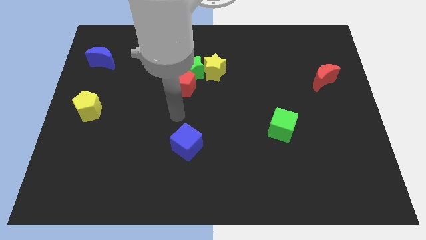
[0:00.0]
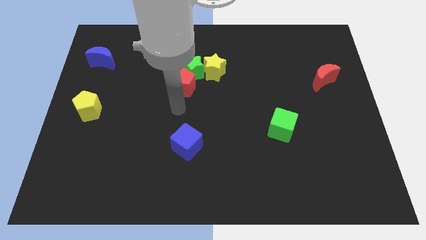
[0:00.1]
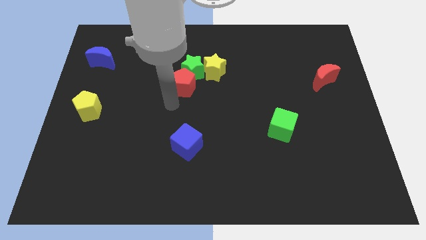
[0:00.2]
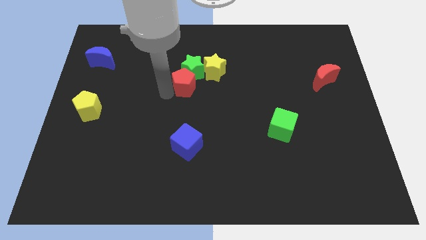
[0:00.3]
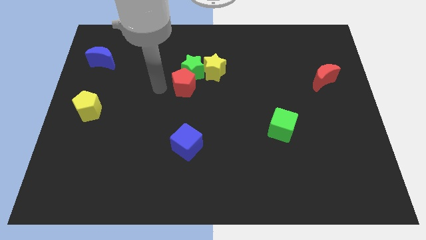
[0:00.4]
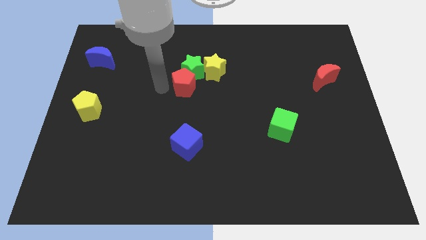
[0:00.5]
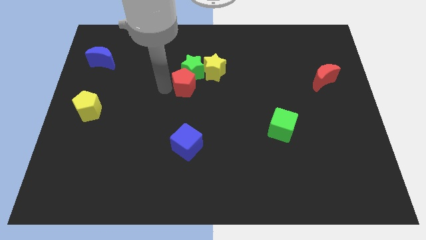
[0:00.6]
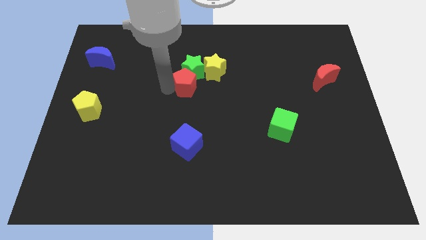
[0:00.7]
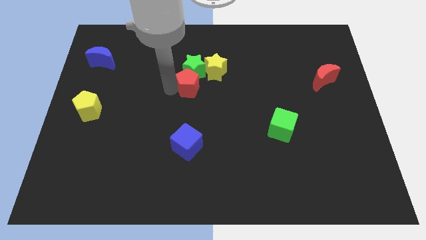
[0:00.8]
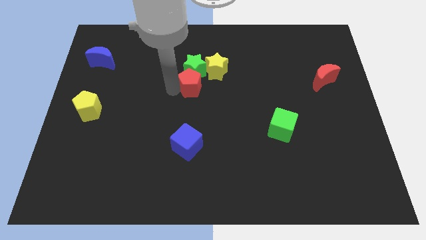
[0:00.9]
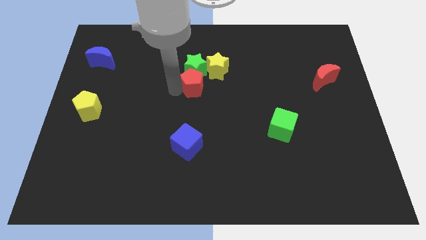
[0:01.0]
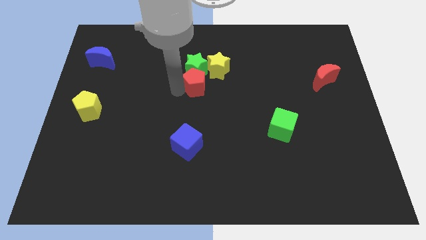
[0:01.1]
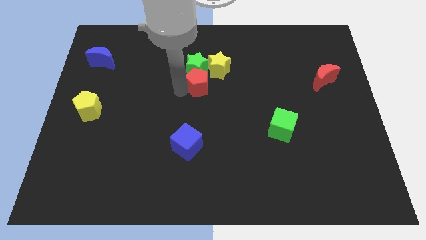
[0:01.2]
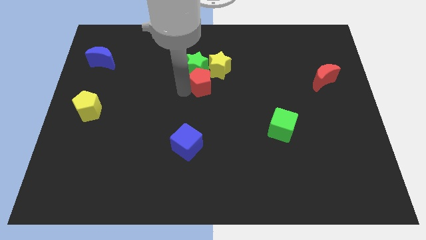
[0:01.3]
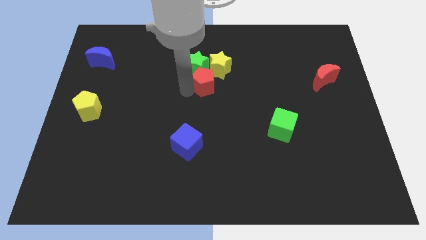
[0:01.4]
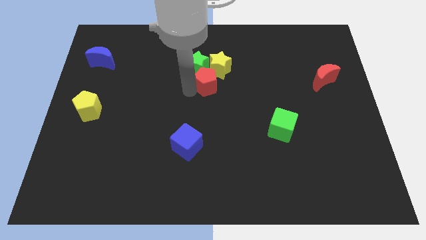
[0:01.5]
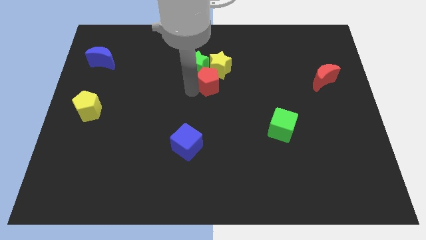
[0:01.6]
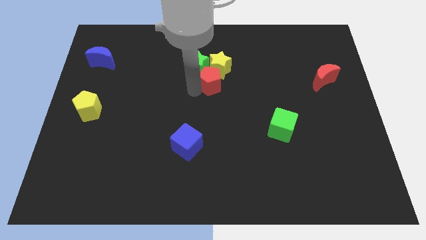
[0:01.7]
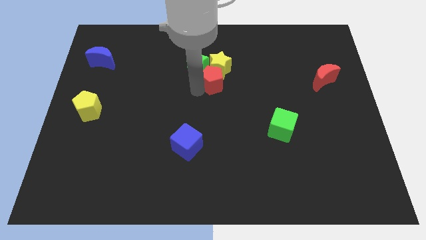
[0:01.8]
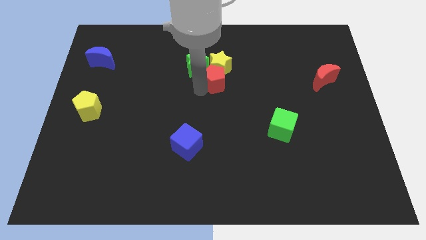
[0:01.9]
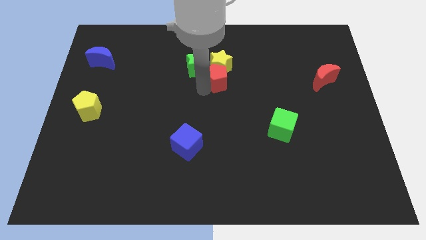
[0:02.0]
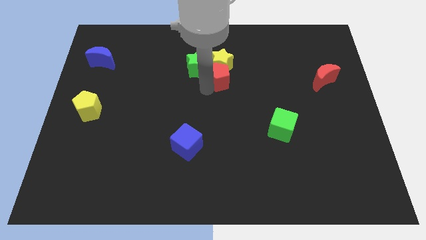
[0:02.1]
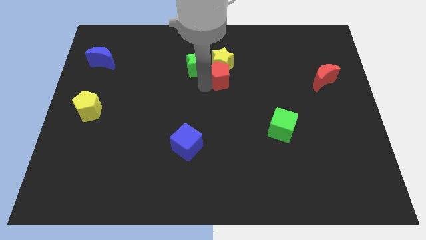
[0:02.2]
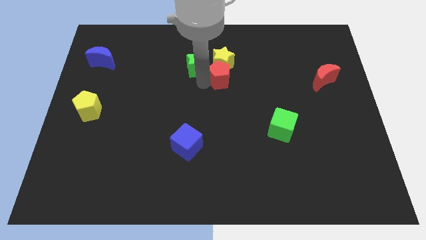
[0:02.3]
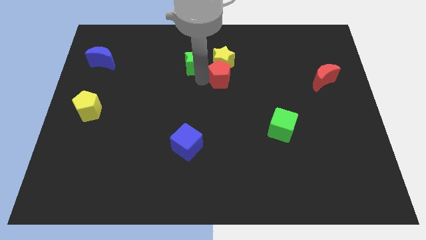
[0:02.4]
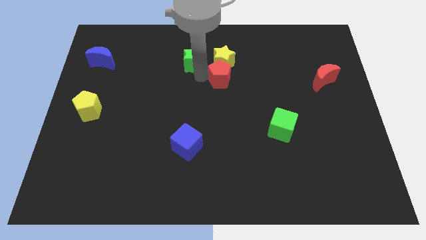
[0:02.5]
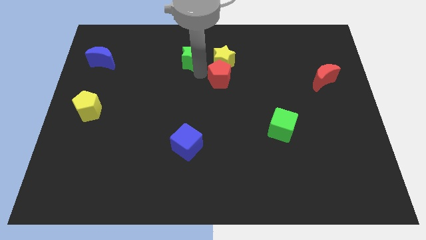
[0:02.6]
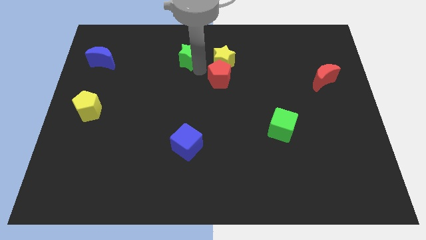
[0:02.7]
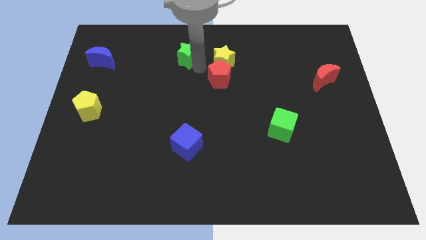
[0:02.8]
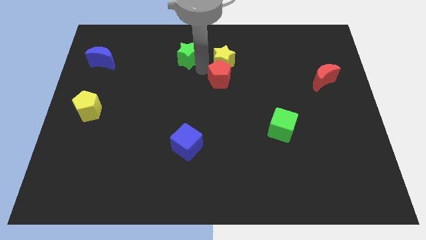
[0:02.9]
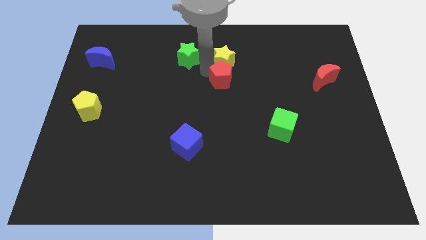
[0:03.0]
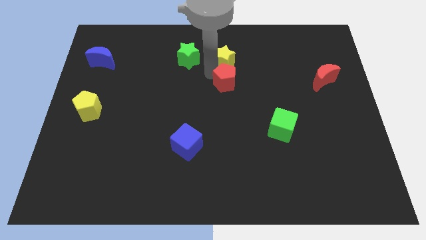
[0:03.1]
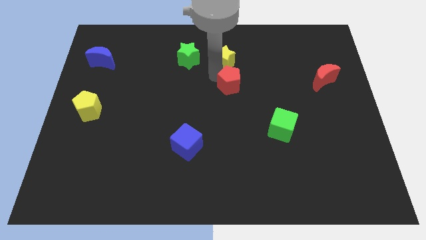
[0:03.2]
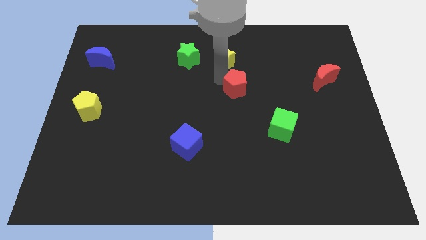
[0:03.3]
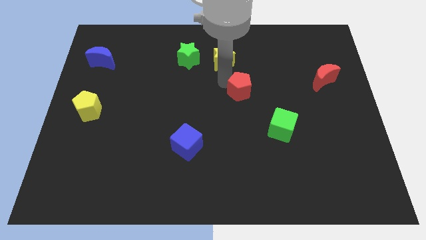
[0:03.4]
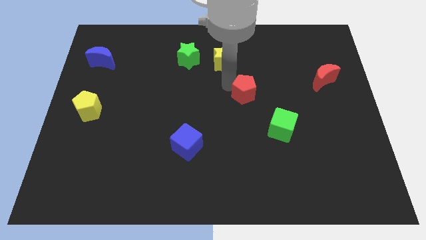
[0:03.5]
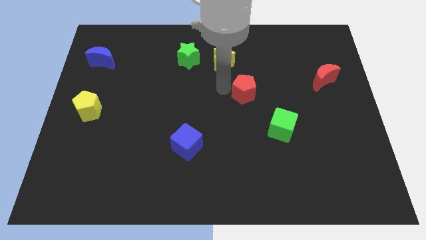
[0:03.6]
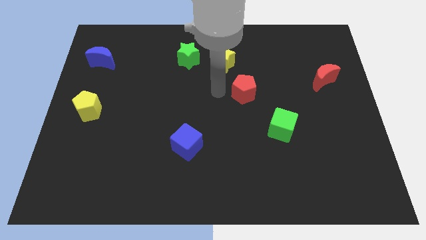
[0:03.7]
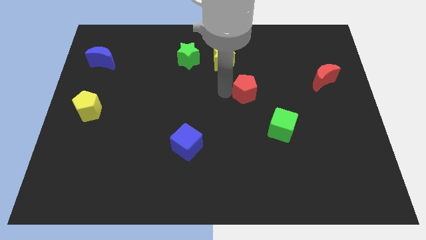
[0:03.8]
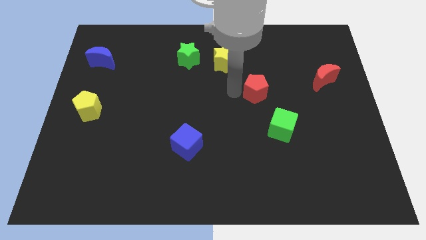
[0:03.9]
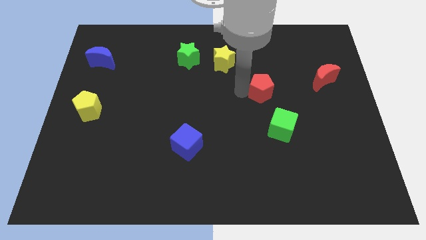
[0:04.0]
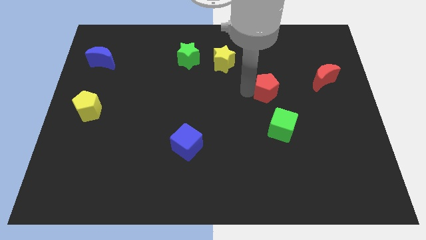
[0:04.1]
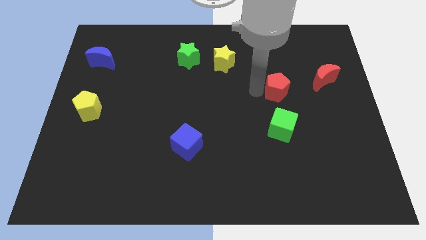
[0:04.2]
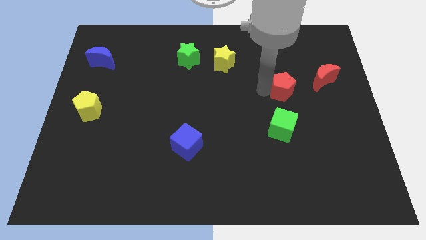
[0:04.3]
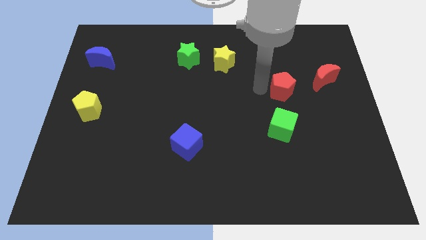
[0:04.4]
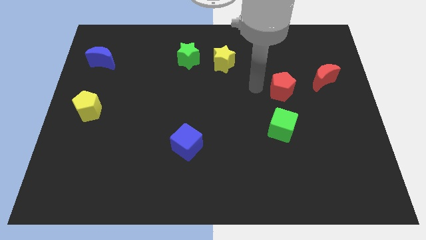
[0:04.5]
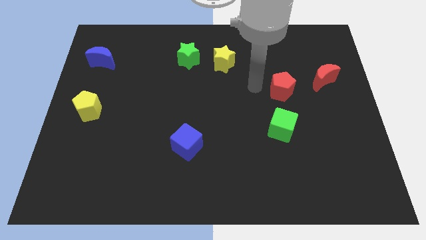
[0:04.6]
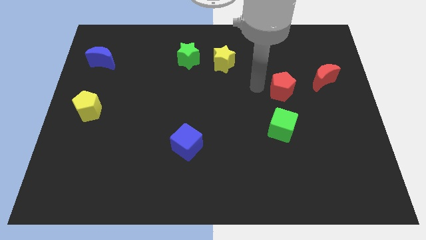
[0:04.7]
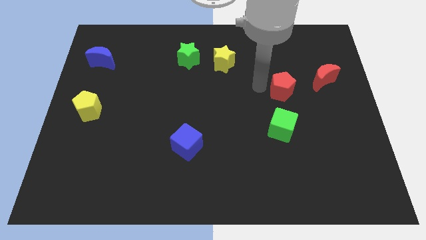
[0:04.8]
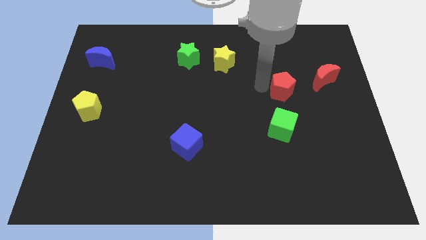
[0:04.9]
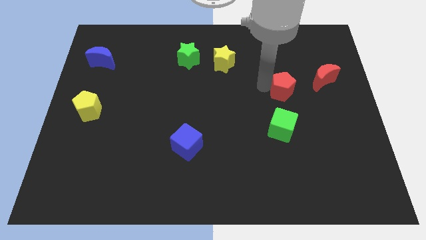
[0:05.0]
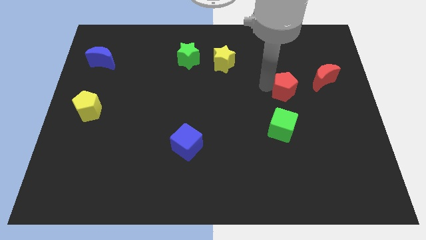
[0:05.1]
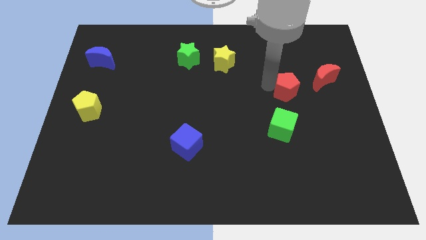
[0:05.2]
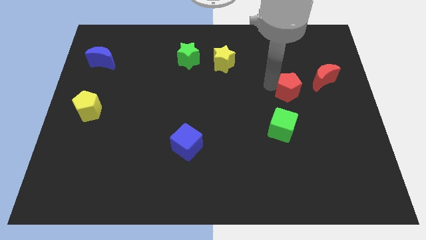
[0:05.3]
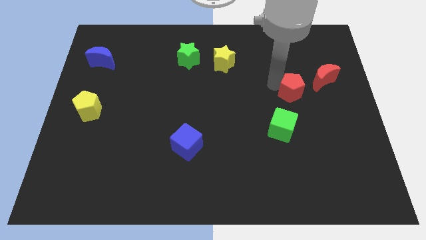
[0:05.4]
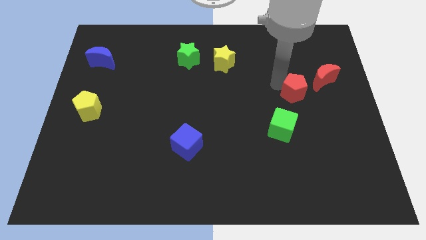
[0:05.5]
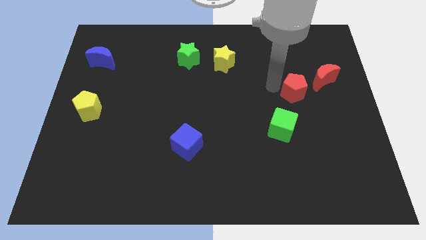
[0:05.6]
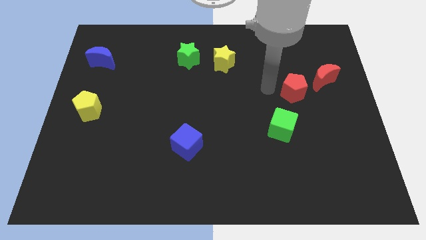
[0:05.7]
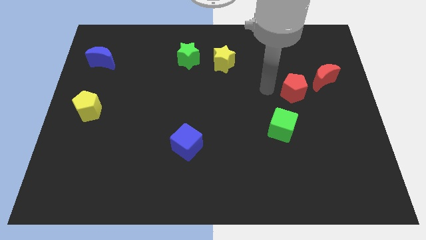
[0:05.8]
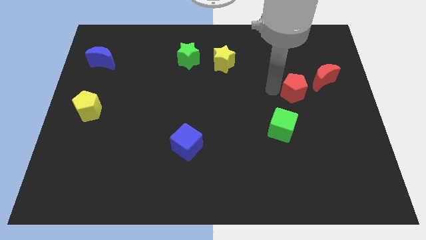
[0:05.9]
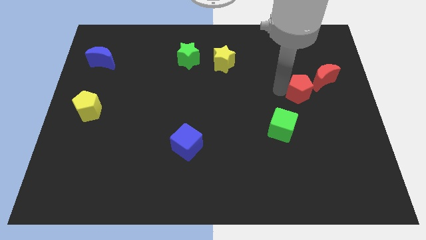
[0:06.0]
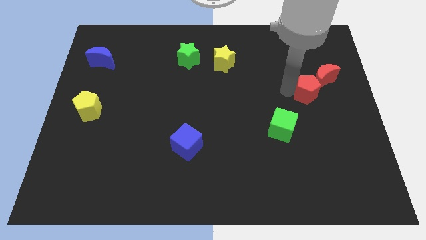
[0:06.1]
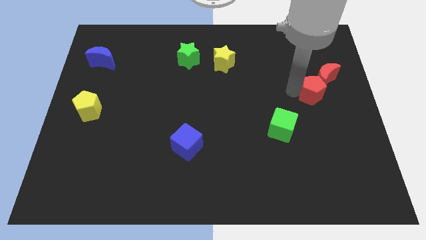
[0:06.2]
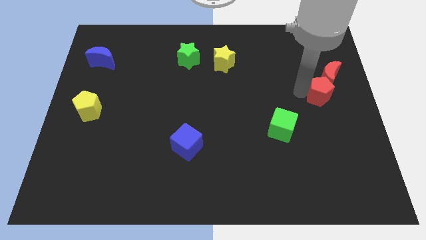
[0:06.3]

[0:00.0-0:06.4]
move the red pentagon to the right side of the board
